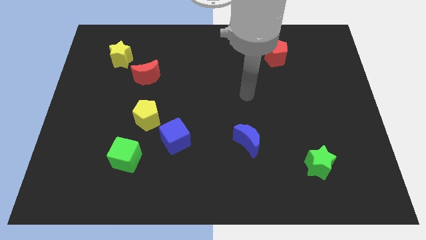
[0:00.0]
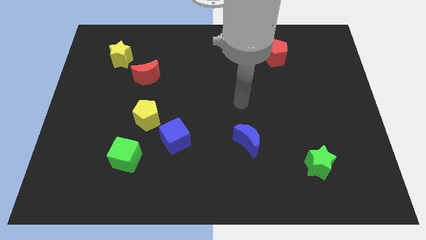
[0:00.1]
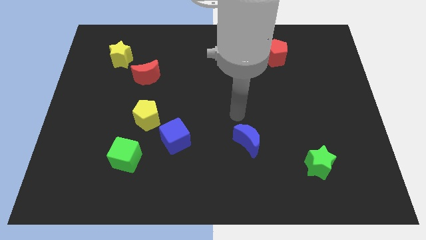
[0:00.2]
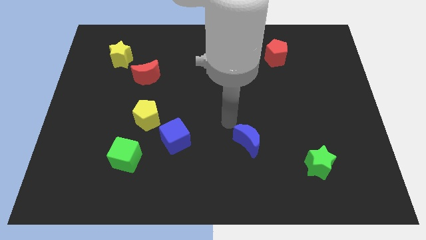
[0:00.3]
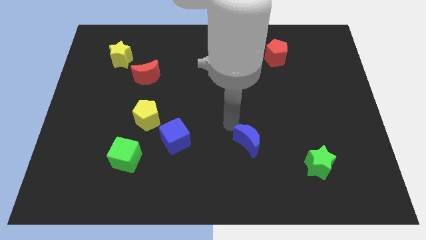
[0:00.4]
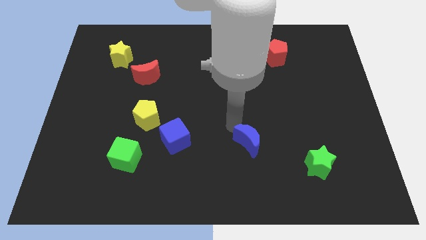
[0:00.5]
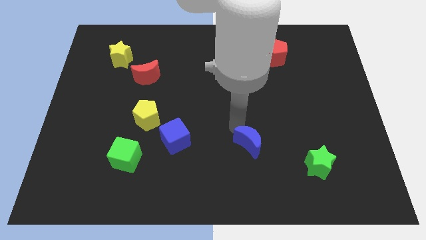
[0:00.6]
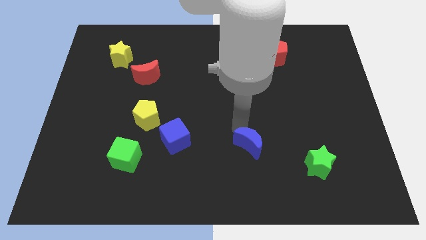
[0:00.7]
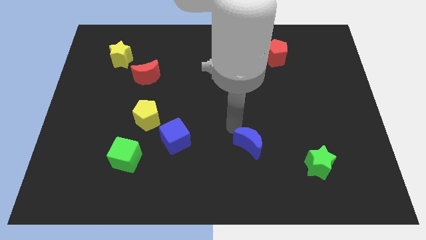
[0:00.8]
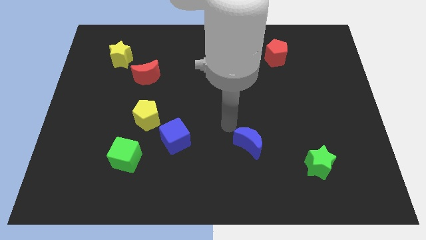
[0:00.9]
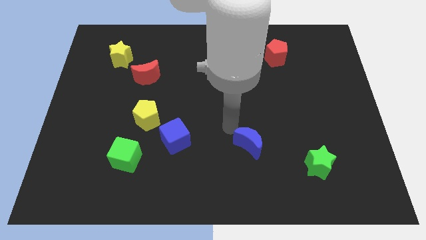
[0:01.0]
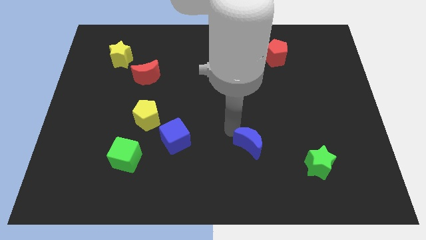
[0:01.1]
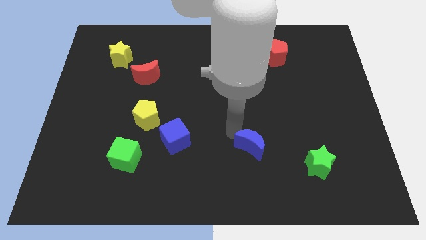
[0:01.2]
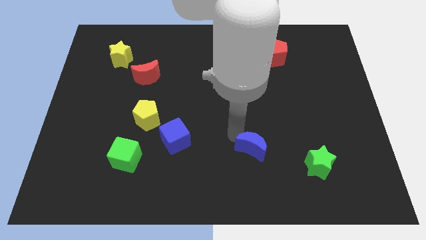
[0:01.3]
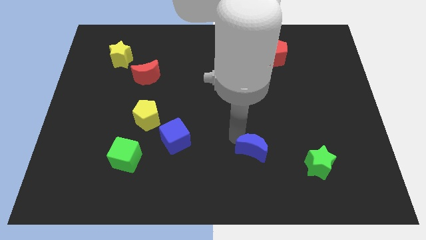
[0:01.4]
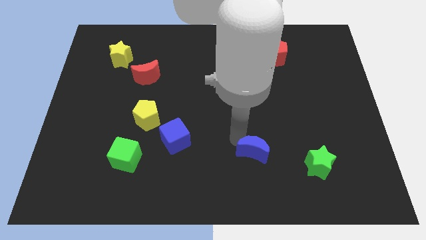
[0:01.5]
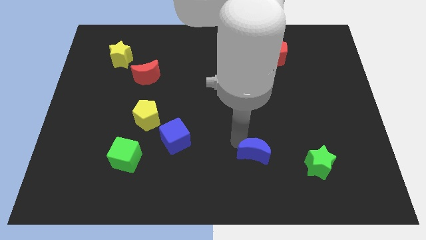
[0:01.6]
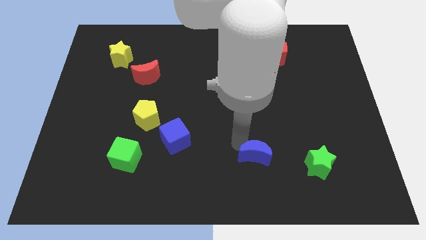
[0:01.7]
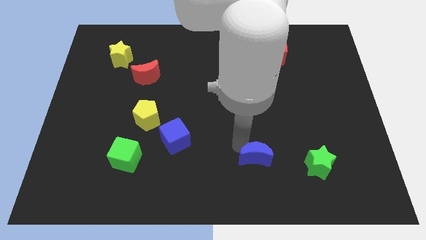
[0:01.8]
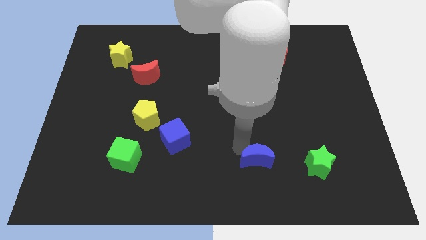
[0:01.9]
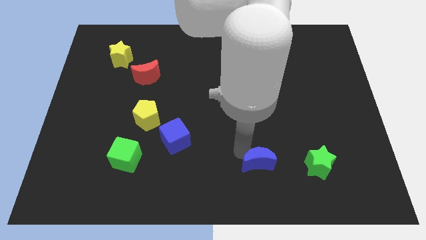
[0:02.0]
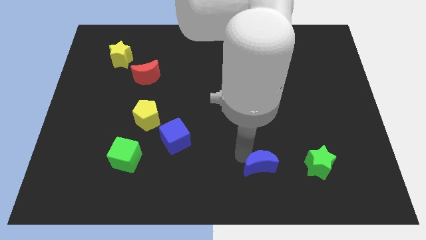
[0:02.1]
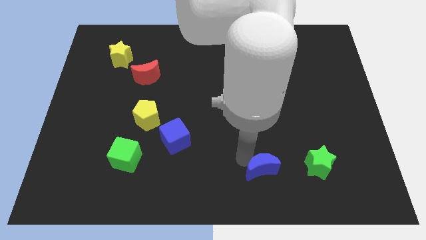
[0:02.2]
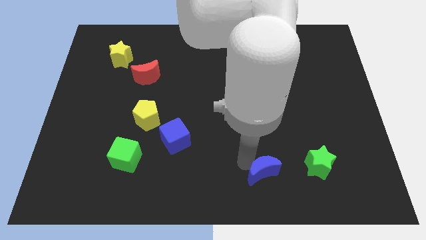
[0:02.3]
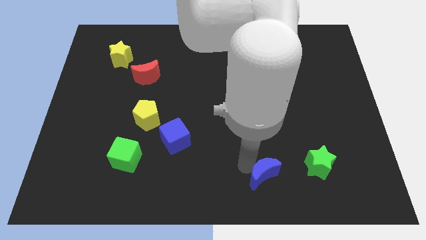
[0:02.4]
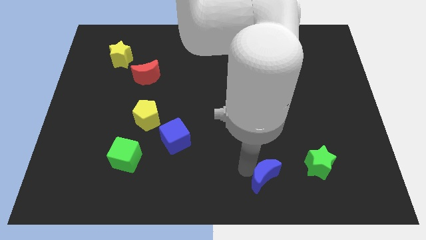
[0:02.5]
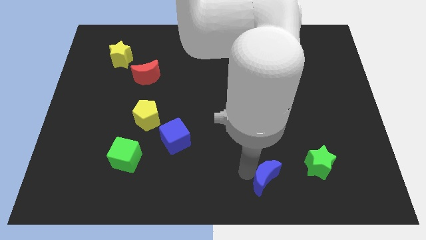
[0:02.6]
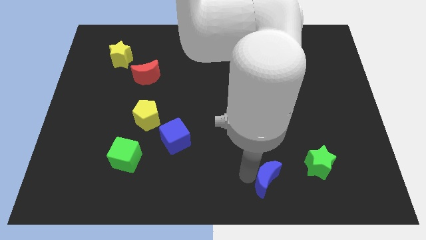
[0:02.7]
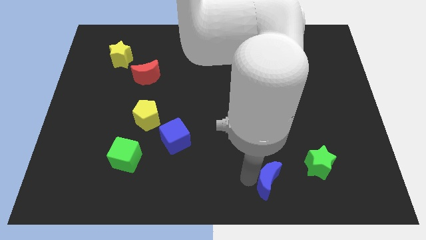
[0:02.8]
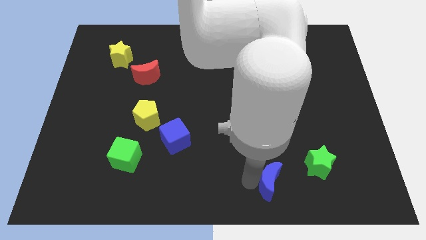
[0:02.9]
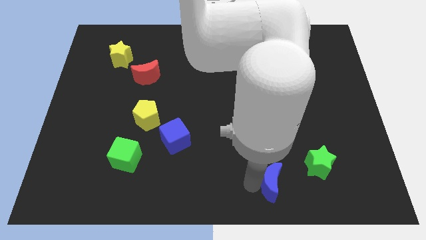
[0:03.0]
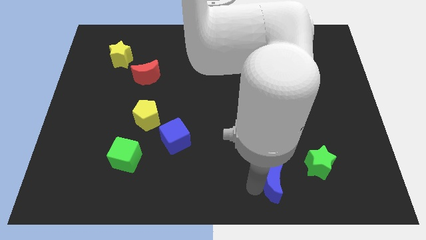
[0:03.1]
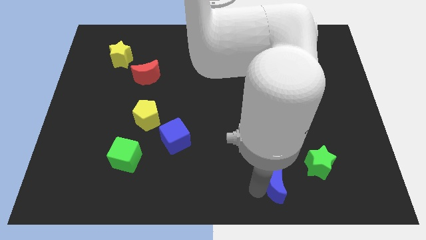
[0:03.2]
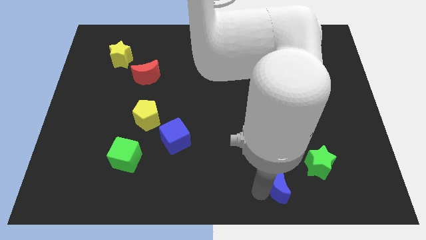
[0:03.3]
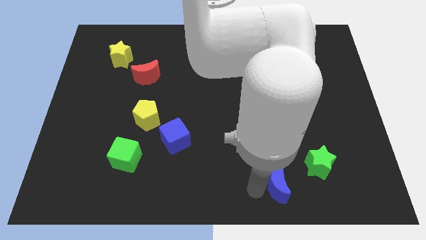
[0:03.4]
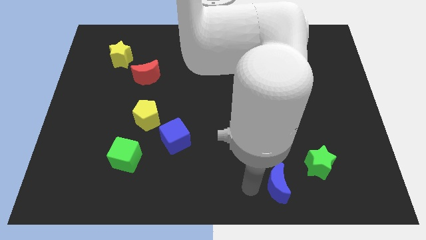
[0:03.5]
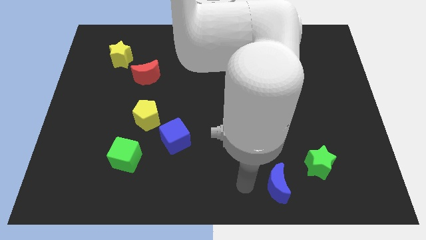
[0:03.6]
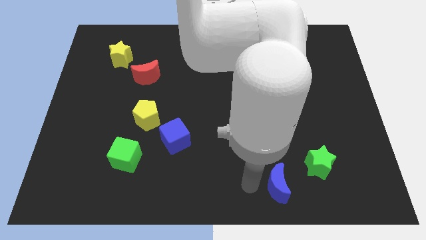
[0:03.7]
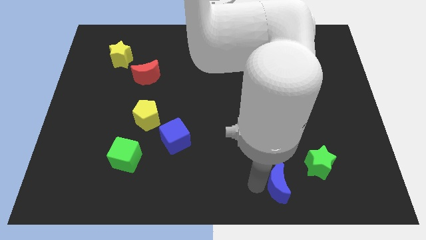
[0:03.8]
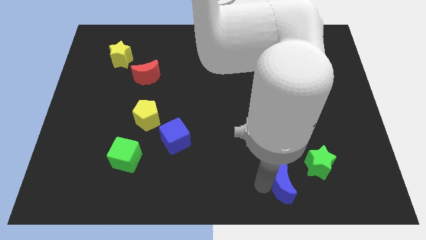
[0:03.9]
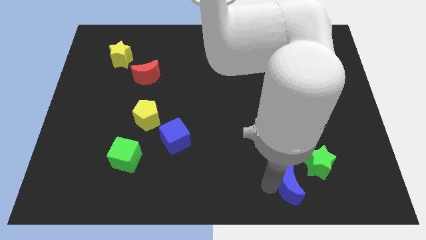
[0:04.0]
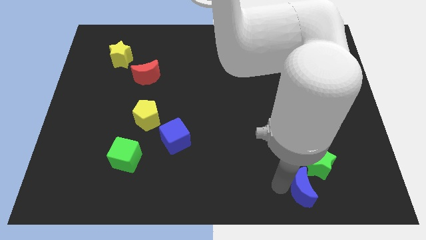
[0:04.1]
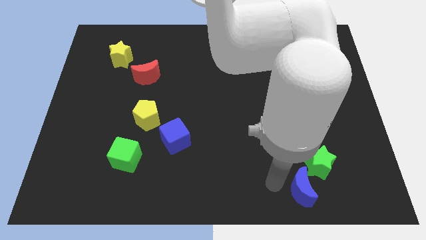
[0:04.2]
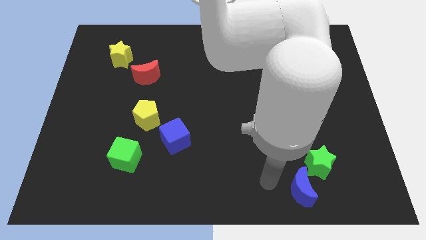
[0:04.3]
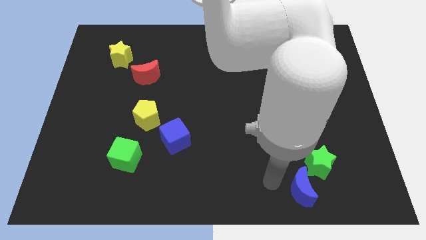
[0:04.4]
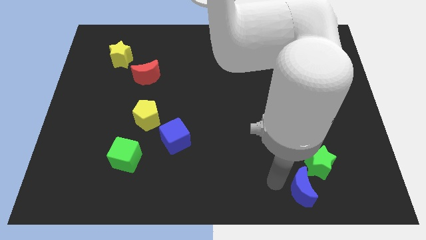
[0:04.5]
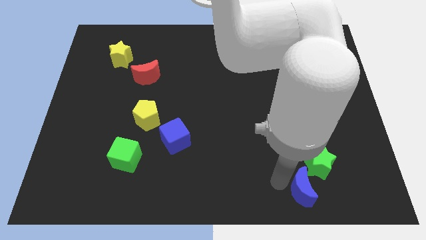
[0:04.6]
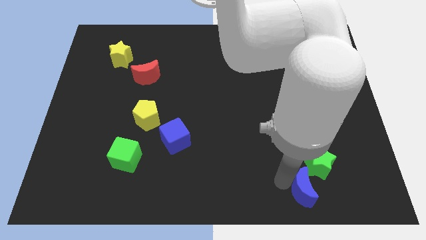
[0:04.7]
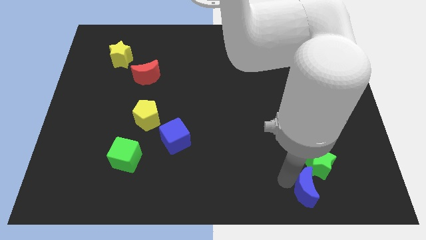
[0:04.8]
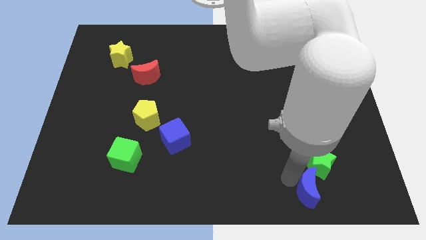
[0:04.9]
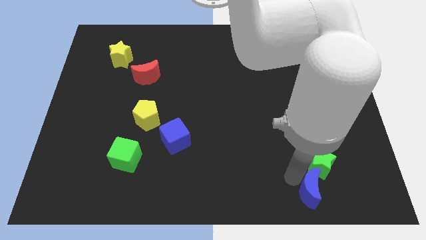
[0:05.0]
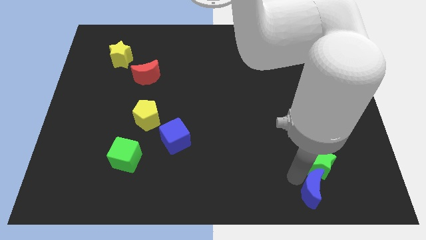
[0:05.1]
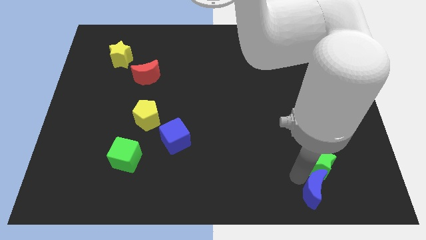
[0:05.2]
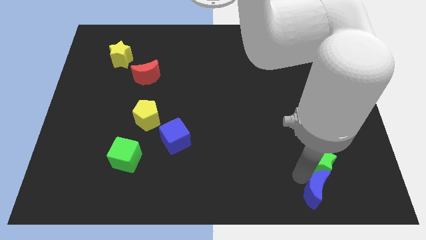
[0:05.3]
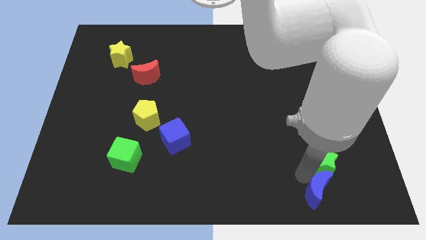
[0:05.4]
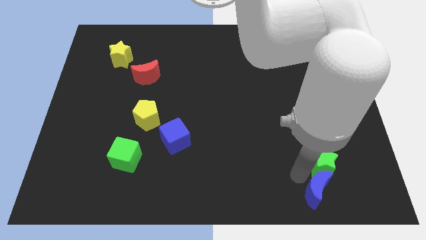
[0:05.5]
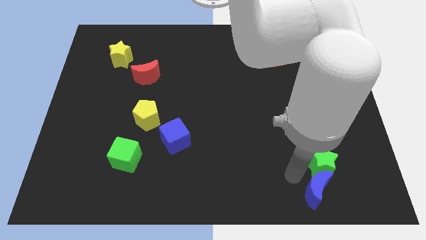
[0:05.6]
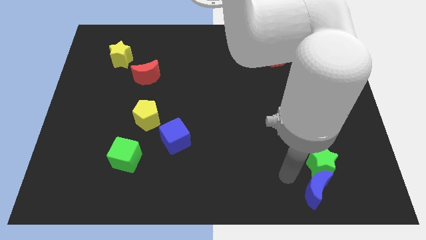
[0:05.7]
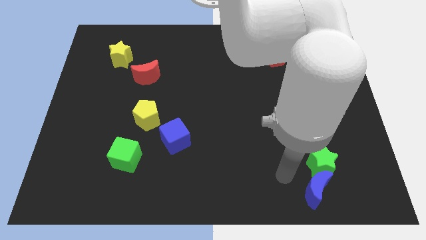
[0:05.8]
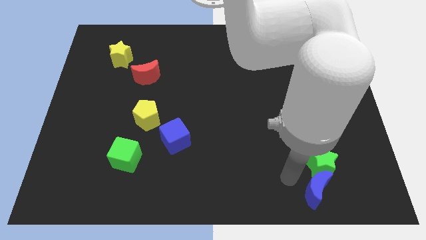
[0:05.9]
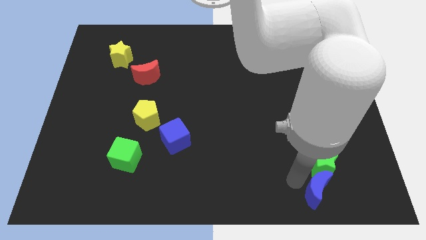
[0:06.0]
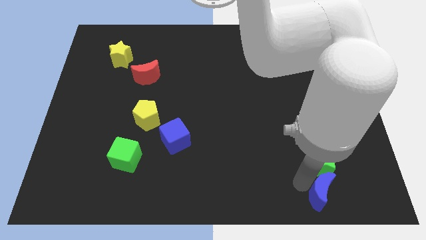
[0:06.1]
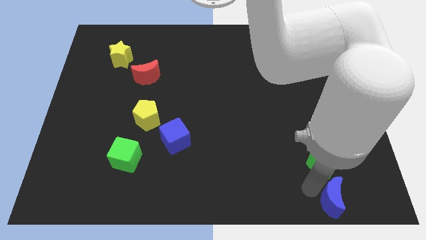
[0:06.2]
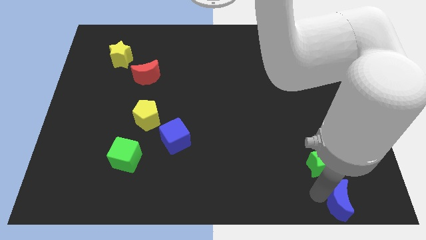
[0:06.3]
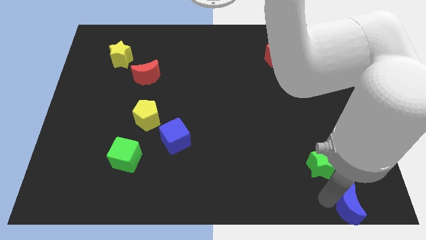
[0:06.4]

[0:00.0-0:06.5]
put the blue moon to the lower right corner
